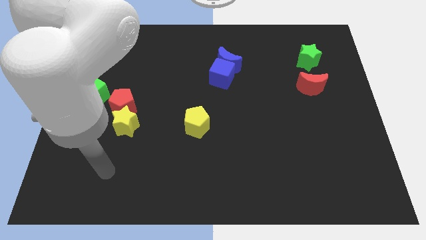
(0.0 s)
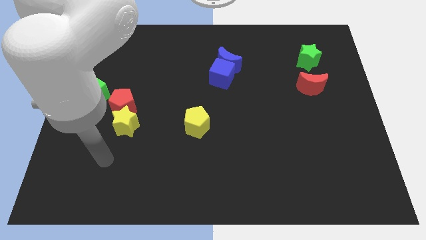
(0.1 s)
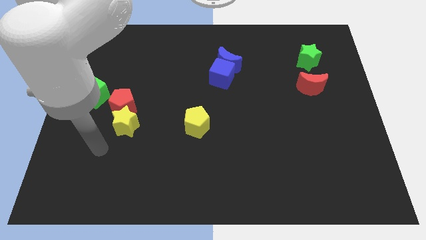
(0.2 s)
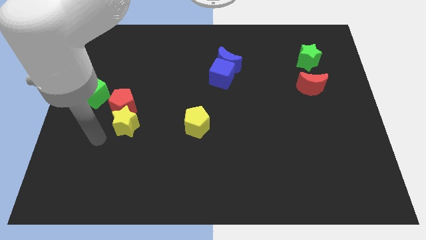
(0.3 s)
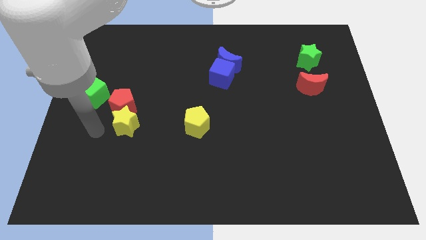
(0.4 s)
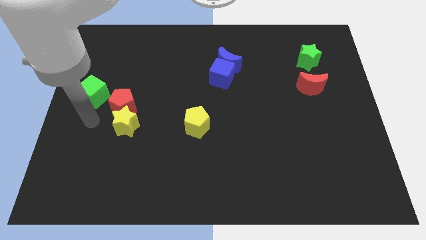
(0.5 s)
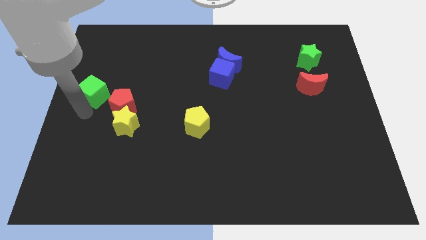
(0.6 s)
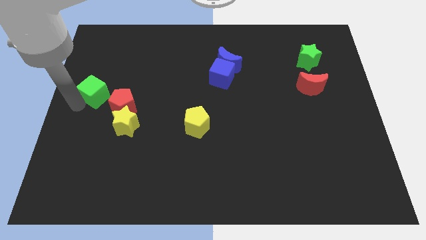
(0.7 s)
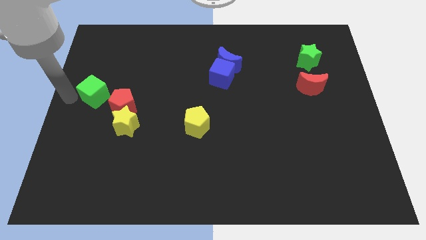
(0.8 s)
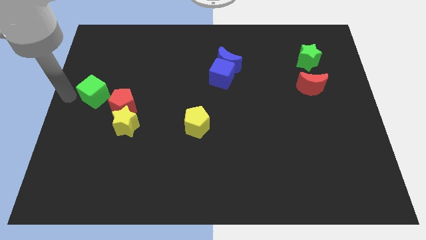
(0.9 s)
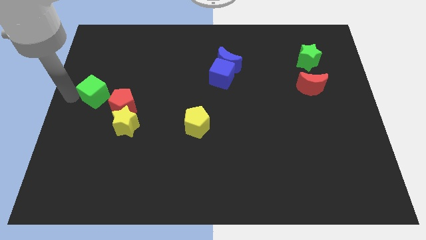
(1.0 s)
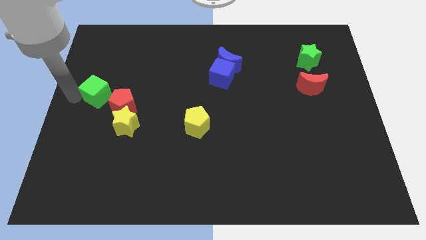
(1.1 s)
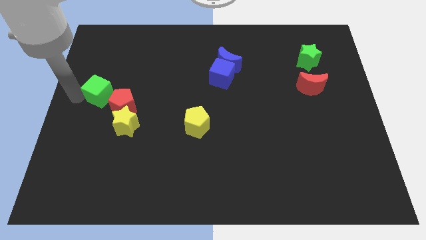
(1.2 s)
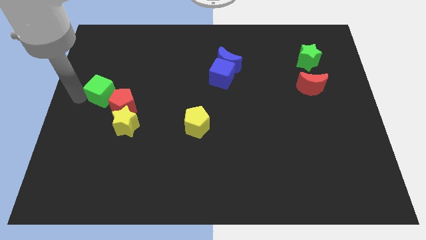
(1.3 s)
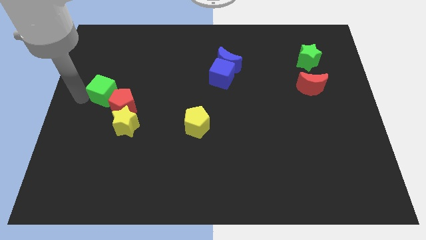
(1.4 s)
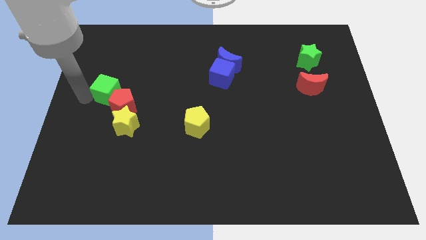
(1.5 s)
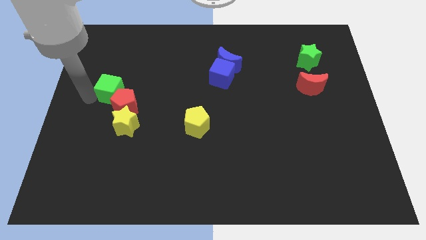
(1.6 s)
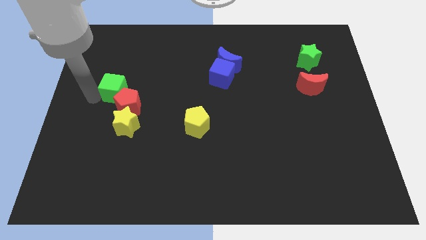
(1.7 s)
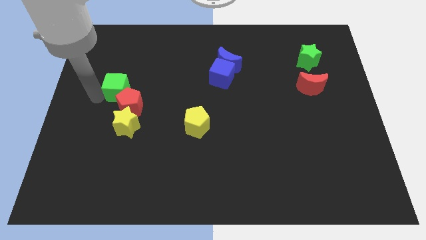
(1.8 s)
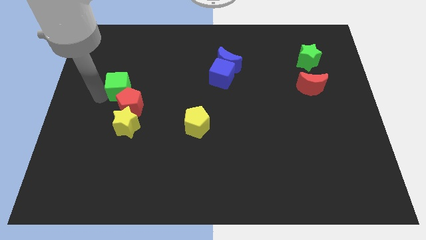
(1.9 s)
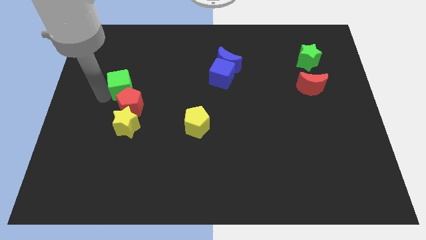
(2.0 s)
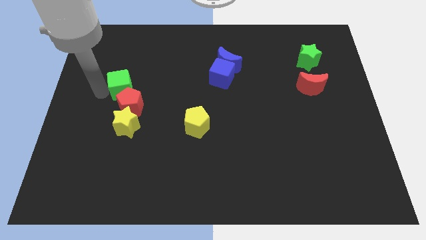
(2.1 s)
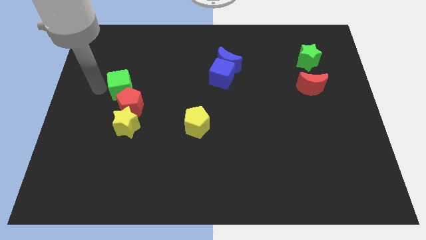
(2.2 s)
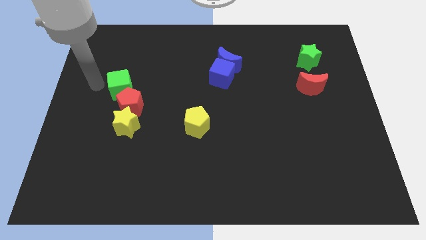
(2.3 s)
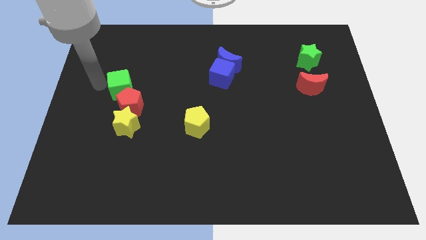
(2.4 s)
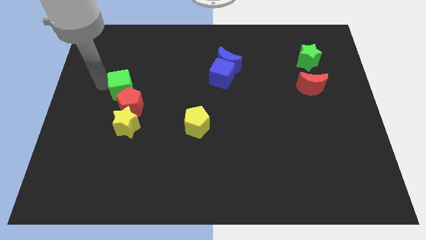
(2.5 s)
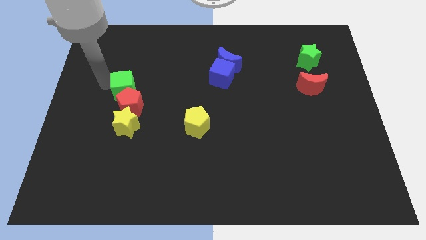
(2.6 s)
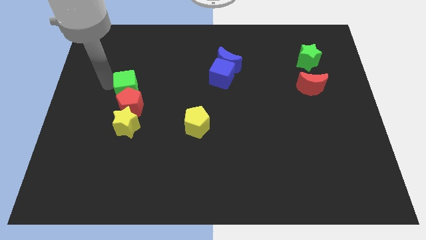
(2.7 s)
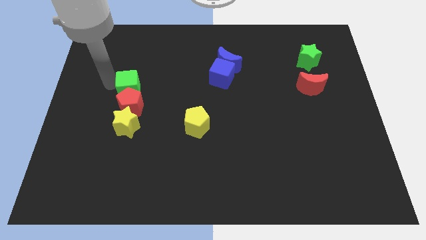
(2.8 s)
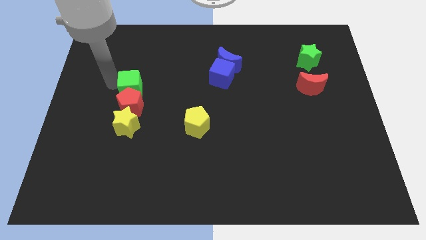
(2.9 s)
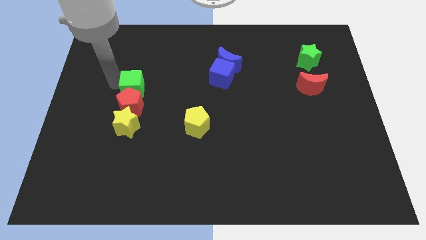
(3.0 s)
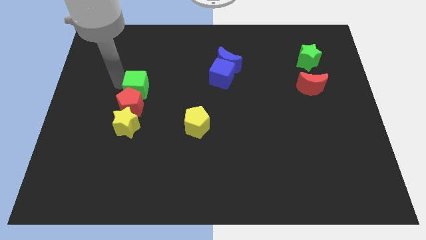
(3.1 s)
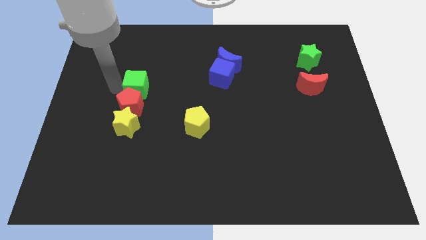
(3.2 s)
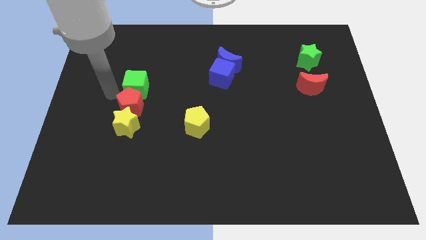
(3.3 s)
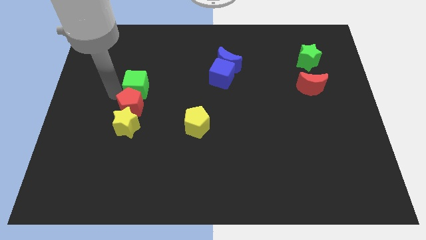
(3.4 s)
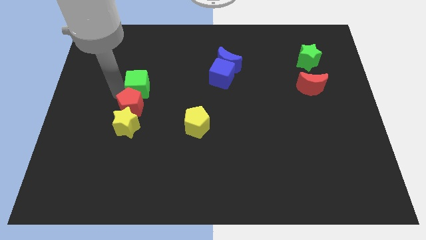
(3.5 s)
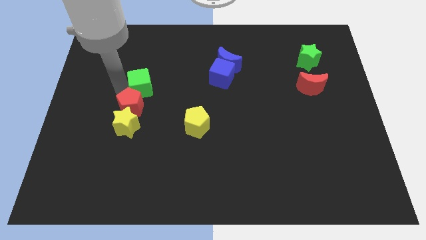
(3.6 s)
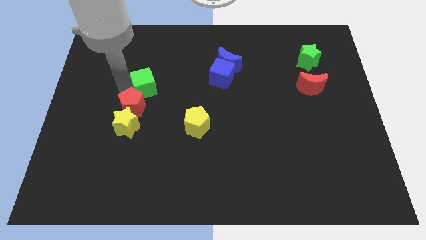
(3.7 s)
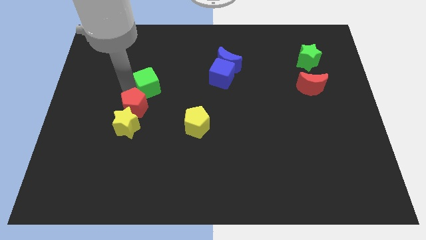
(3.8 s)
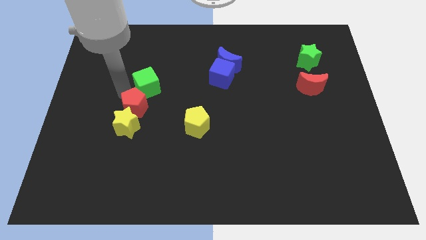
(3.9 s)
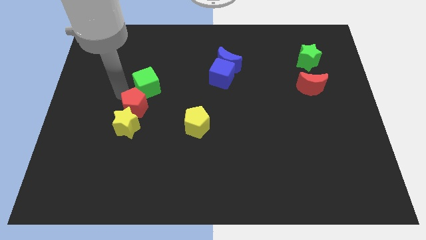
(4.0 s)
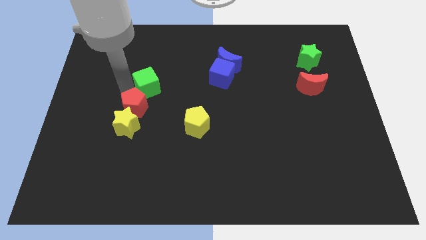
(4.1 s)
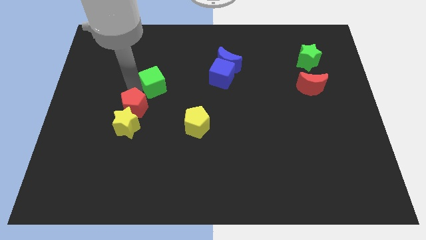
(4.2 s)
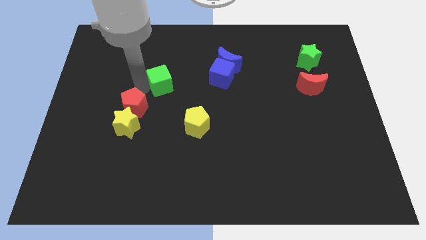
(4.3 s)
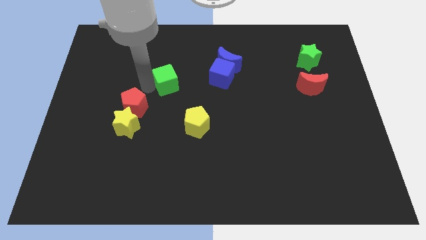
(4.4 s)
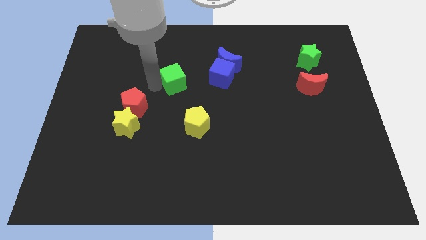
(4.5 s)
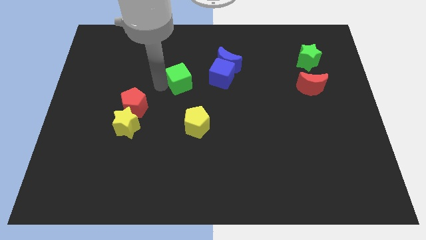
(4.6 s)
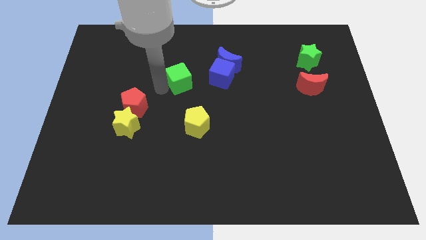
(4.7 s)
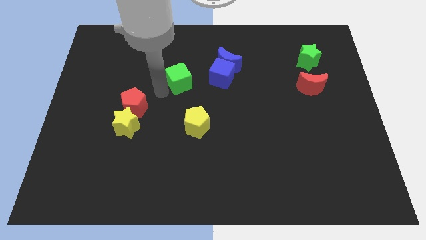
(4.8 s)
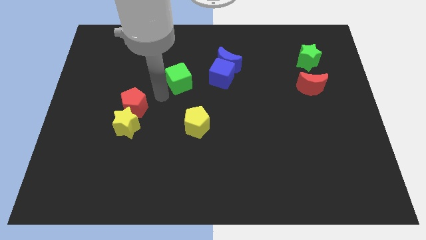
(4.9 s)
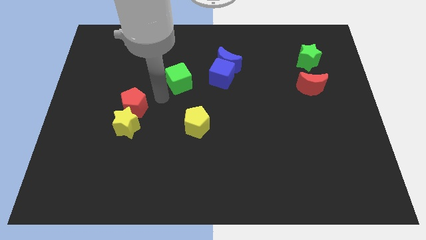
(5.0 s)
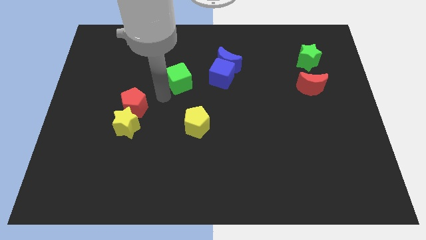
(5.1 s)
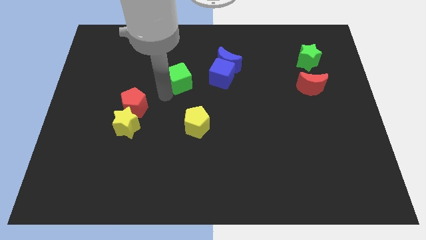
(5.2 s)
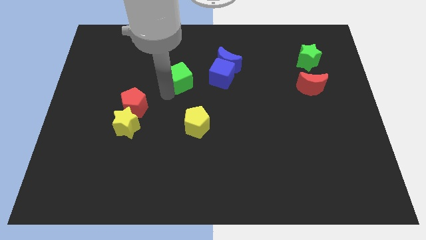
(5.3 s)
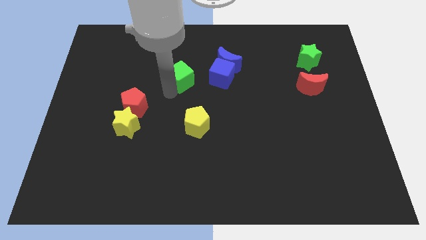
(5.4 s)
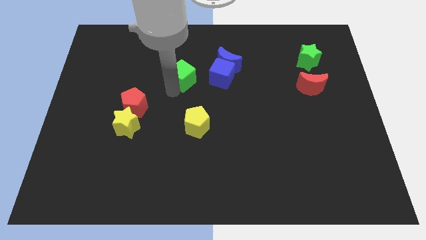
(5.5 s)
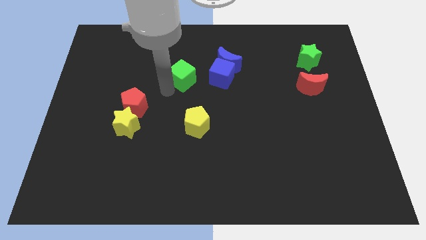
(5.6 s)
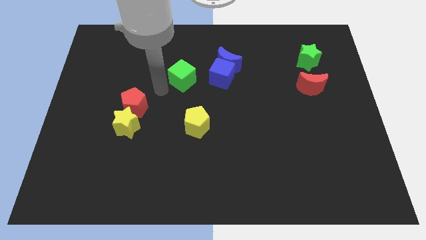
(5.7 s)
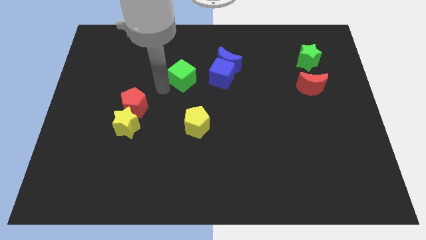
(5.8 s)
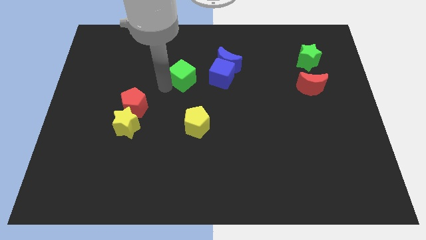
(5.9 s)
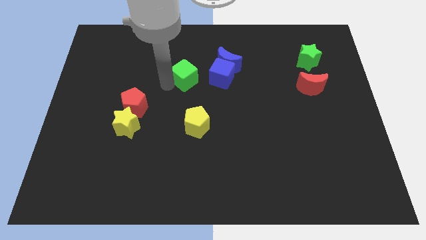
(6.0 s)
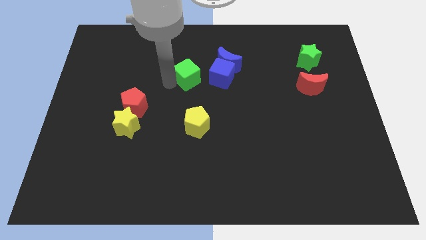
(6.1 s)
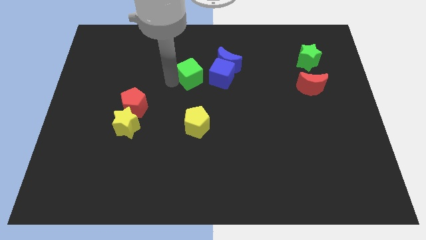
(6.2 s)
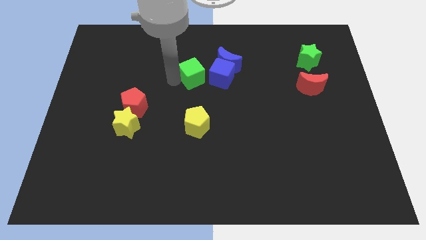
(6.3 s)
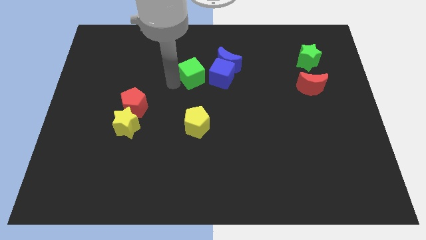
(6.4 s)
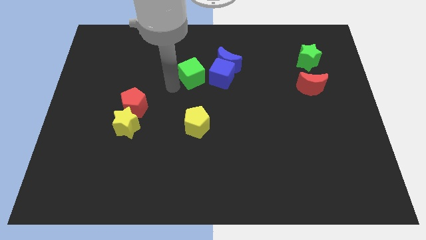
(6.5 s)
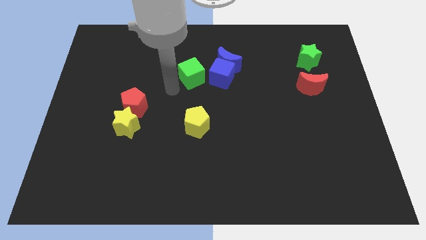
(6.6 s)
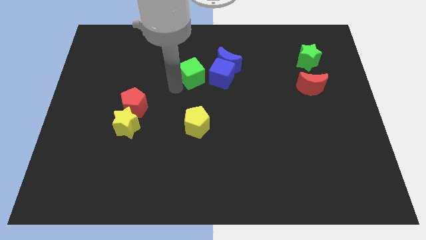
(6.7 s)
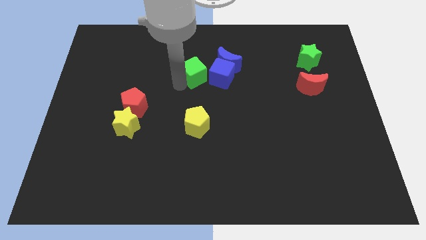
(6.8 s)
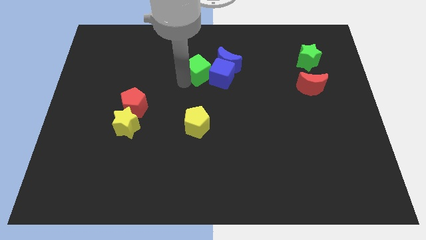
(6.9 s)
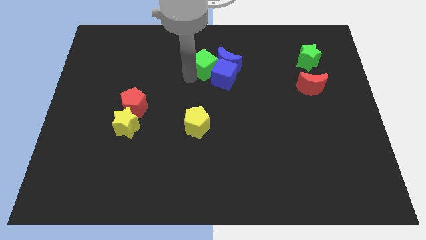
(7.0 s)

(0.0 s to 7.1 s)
move the green cube towards the blue moon
